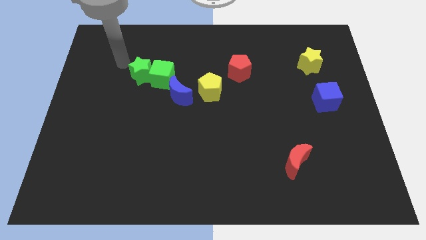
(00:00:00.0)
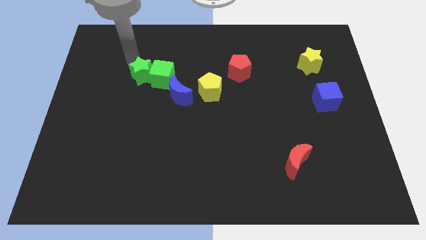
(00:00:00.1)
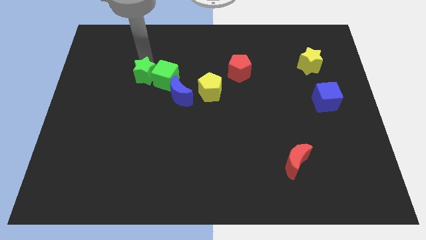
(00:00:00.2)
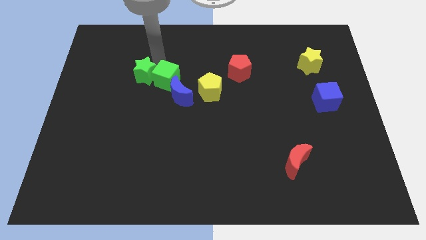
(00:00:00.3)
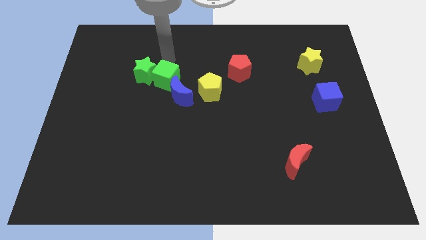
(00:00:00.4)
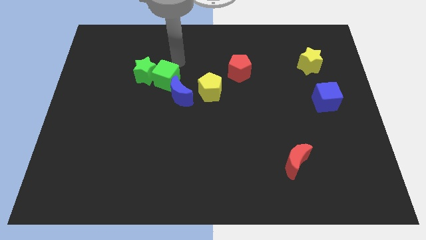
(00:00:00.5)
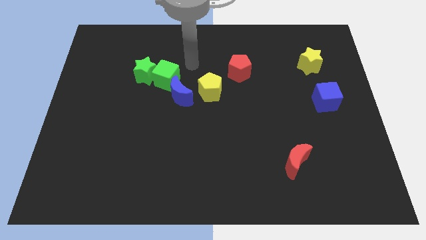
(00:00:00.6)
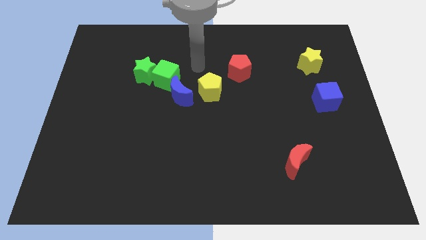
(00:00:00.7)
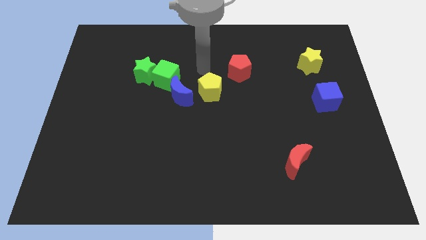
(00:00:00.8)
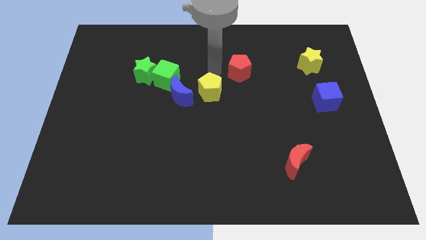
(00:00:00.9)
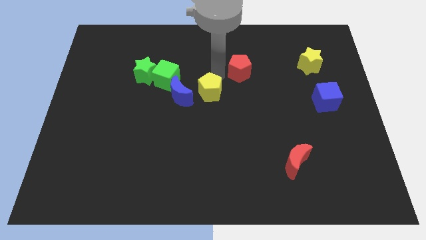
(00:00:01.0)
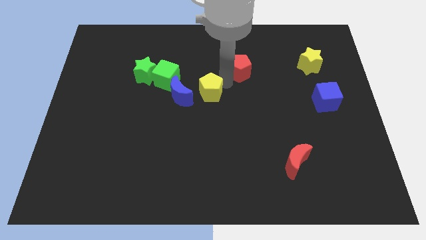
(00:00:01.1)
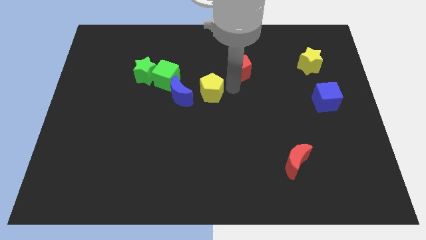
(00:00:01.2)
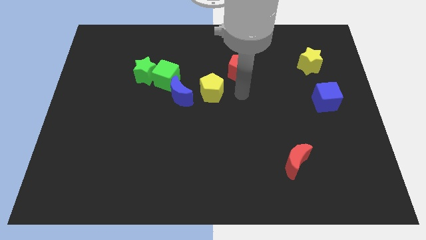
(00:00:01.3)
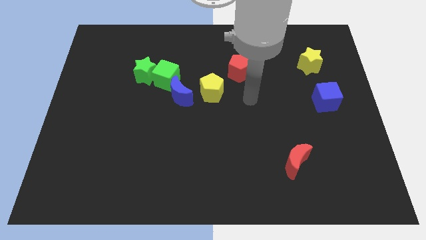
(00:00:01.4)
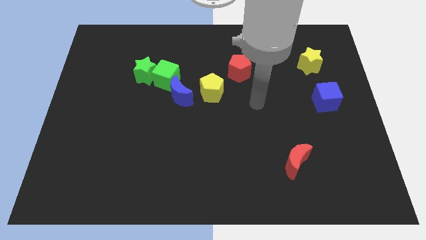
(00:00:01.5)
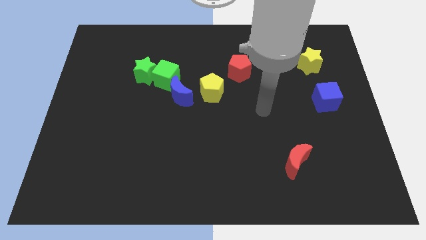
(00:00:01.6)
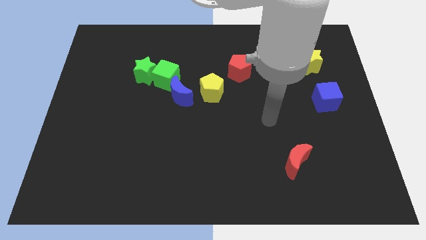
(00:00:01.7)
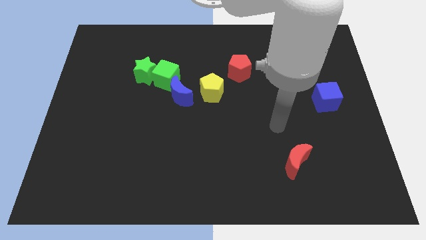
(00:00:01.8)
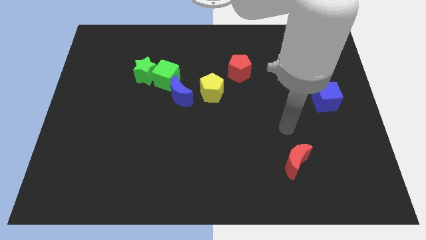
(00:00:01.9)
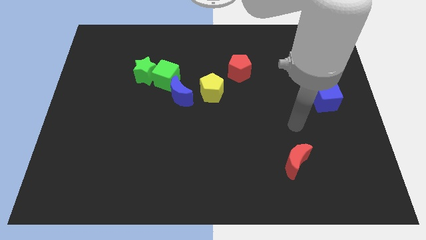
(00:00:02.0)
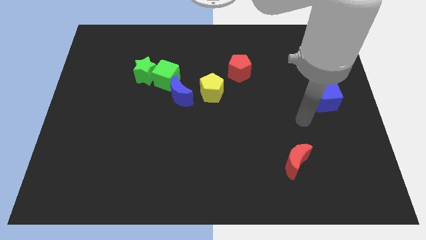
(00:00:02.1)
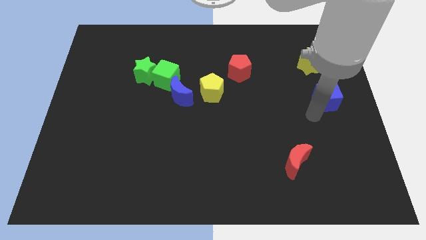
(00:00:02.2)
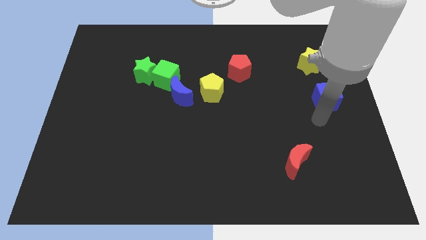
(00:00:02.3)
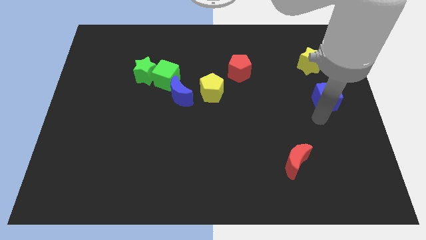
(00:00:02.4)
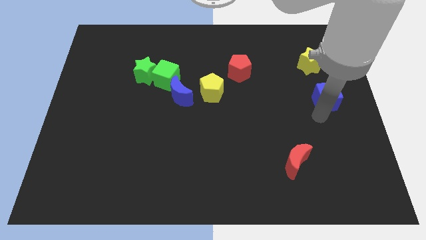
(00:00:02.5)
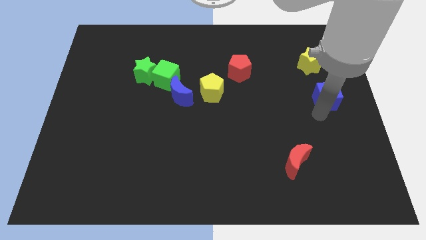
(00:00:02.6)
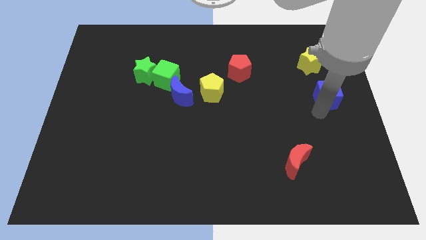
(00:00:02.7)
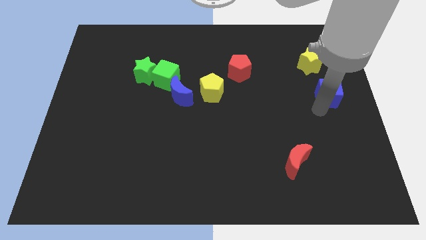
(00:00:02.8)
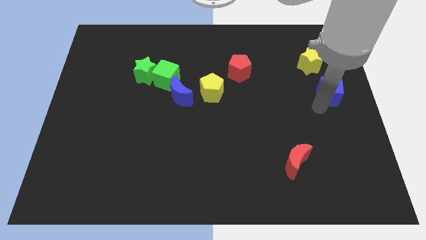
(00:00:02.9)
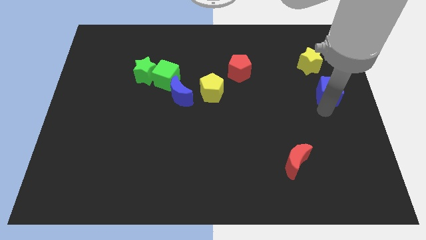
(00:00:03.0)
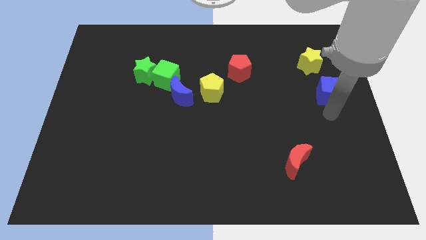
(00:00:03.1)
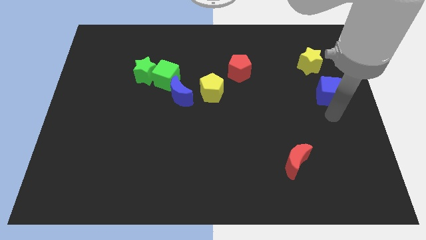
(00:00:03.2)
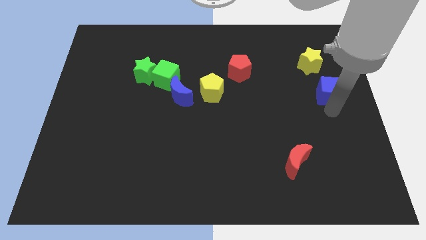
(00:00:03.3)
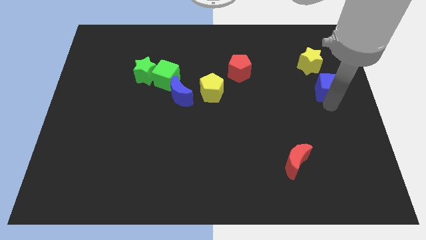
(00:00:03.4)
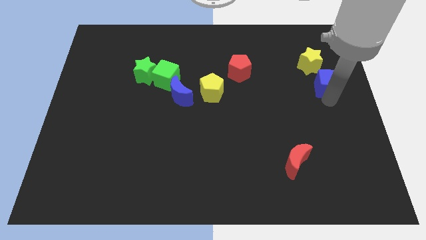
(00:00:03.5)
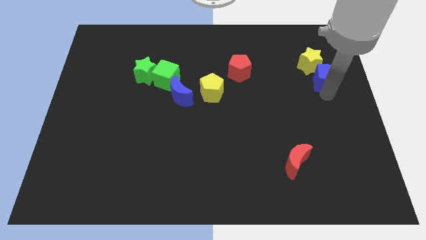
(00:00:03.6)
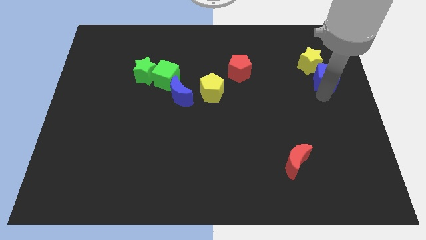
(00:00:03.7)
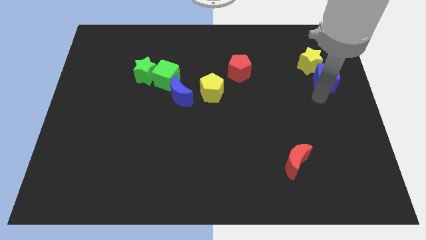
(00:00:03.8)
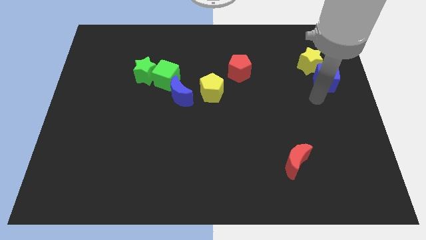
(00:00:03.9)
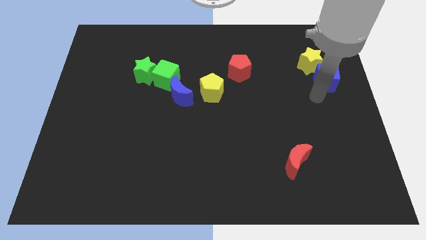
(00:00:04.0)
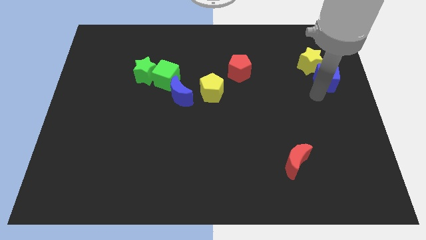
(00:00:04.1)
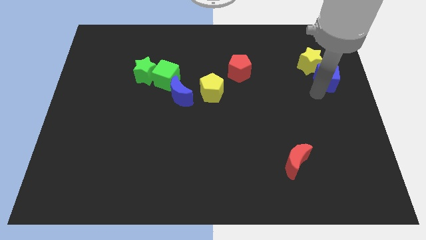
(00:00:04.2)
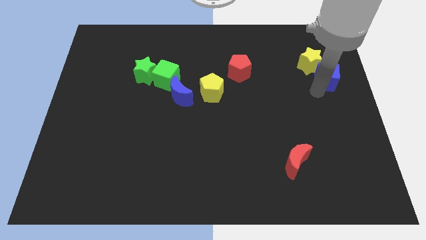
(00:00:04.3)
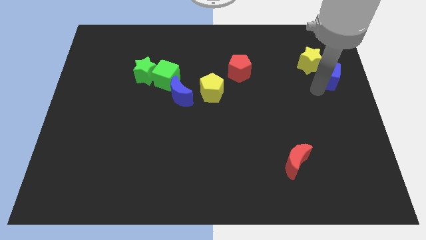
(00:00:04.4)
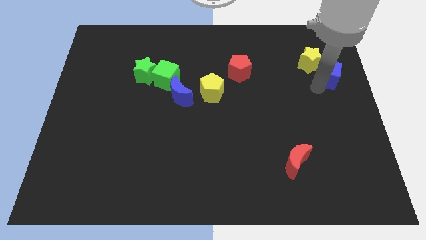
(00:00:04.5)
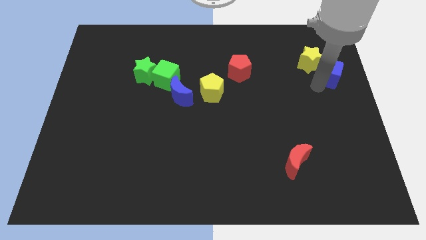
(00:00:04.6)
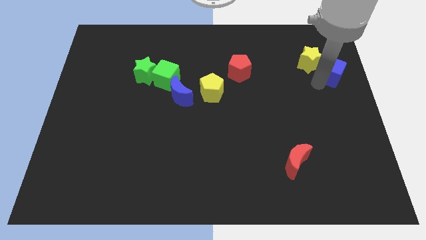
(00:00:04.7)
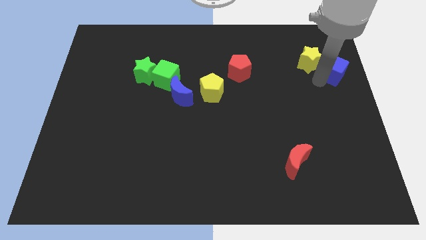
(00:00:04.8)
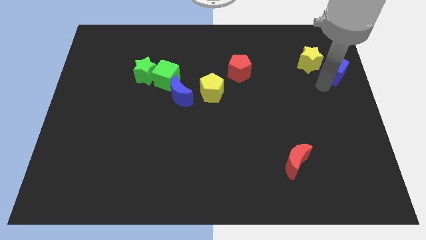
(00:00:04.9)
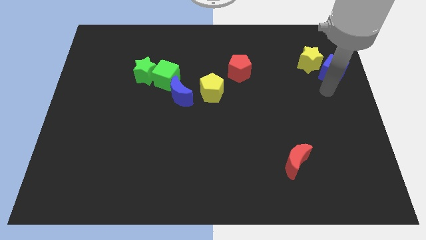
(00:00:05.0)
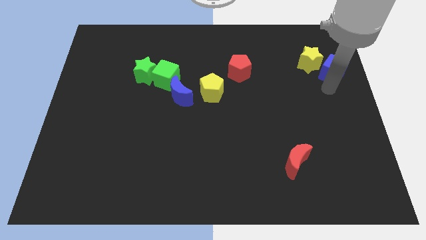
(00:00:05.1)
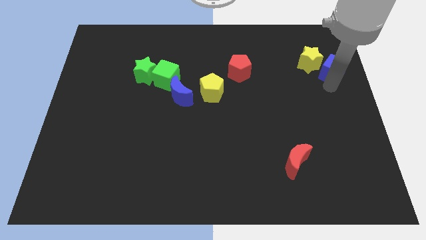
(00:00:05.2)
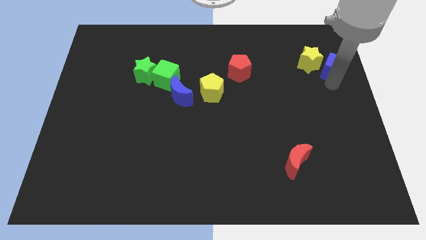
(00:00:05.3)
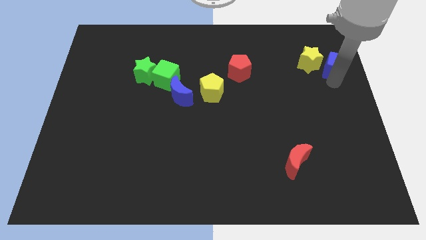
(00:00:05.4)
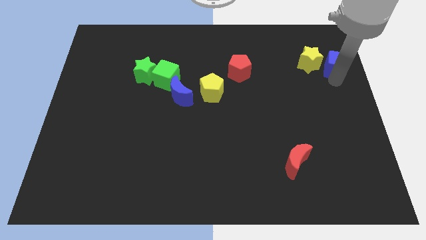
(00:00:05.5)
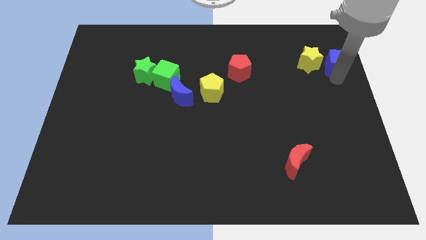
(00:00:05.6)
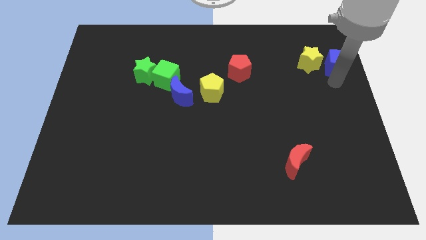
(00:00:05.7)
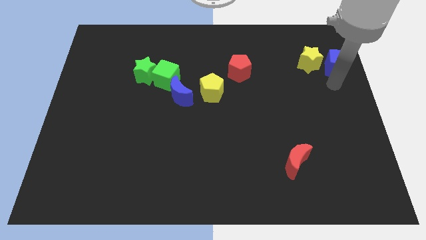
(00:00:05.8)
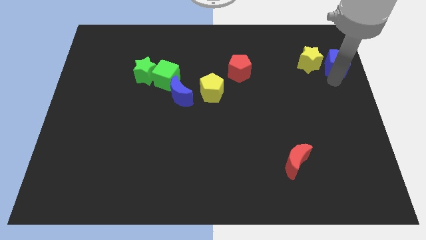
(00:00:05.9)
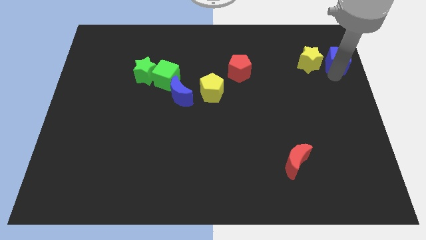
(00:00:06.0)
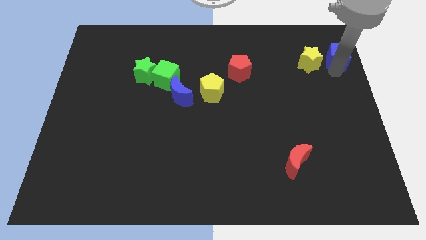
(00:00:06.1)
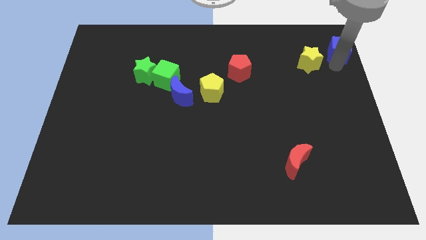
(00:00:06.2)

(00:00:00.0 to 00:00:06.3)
push the blue cube to the top right of the board

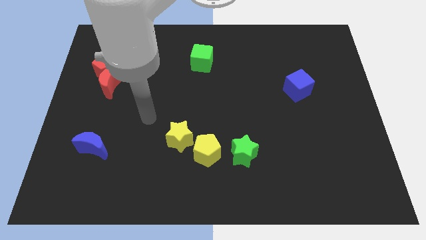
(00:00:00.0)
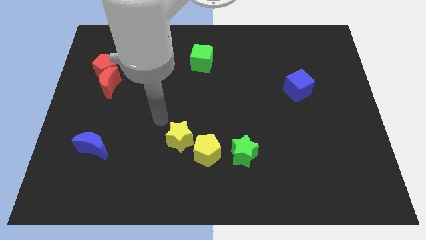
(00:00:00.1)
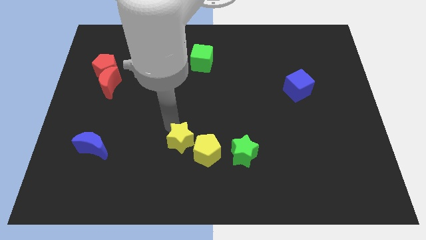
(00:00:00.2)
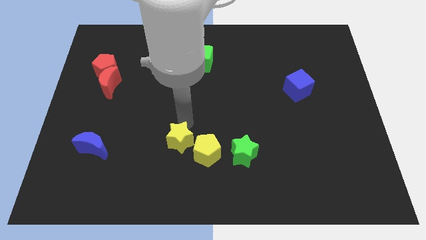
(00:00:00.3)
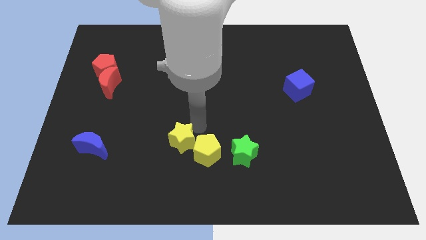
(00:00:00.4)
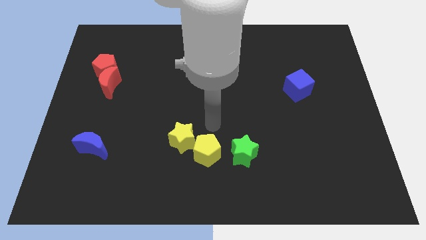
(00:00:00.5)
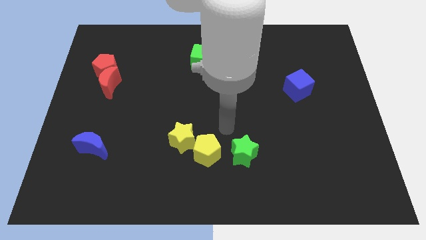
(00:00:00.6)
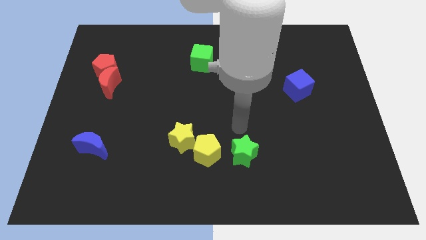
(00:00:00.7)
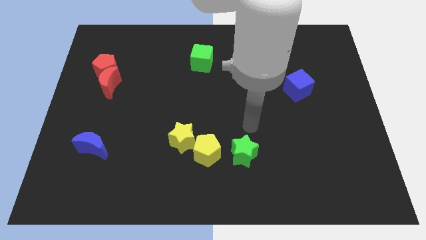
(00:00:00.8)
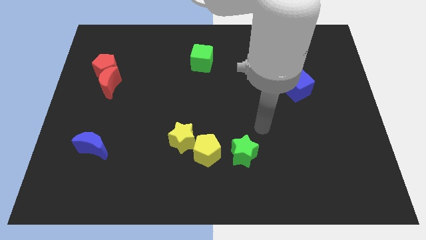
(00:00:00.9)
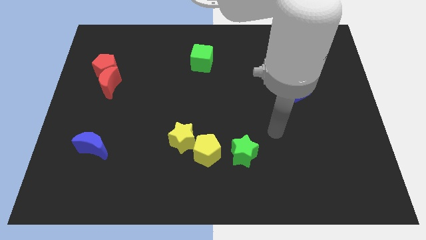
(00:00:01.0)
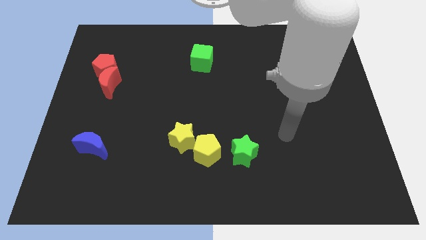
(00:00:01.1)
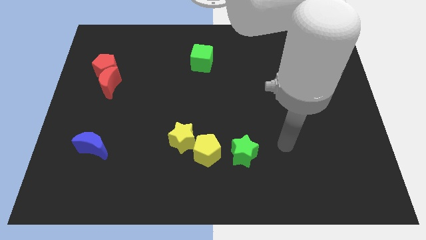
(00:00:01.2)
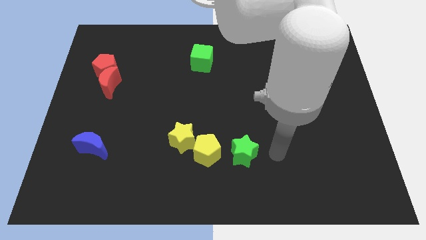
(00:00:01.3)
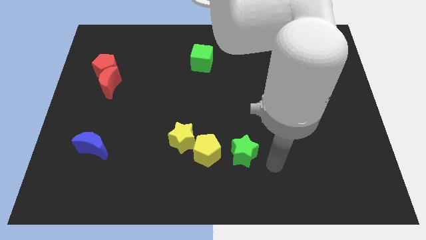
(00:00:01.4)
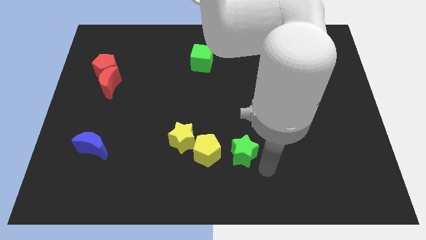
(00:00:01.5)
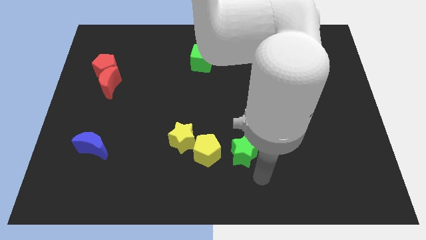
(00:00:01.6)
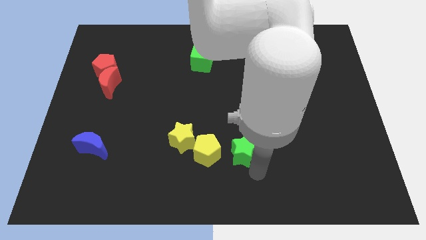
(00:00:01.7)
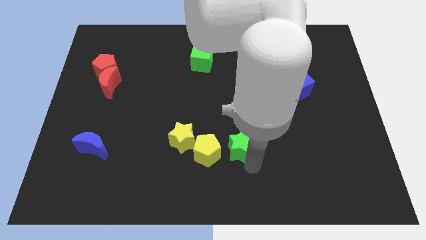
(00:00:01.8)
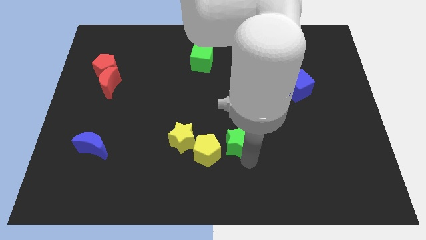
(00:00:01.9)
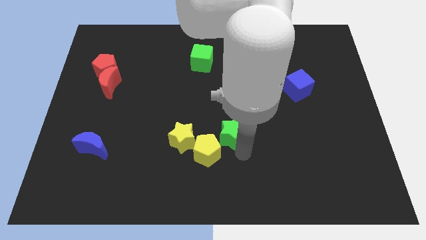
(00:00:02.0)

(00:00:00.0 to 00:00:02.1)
push the green star to the middle of the board
